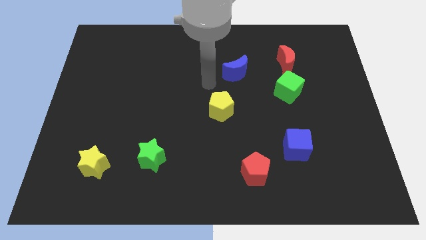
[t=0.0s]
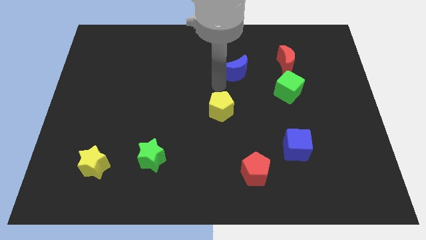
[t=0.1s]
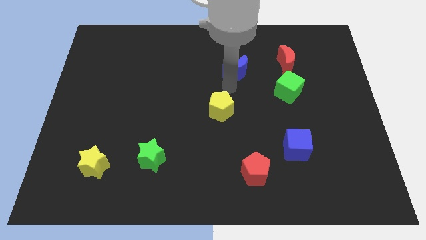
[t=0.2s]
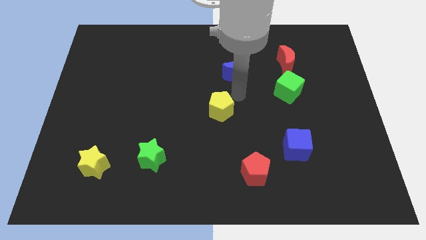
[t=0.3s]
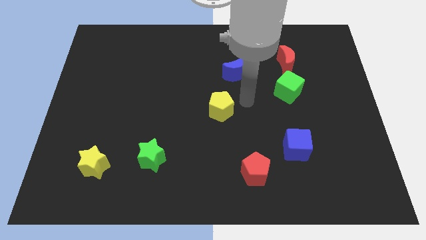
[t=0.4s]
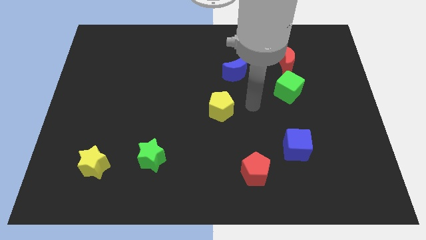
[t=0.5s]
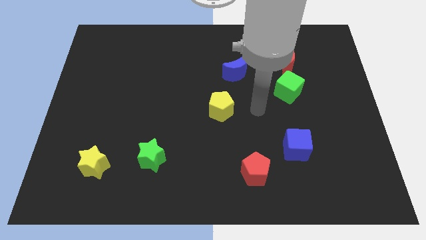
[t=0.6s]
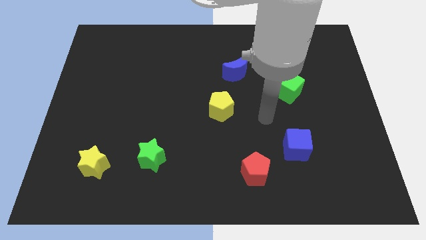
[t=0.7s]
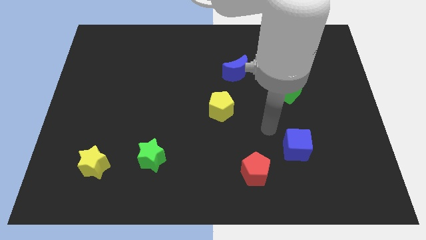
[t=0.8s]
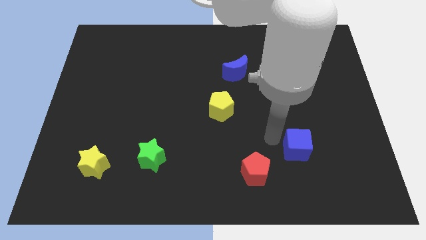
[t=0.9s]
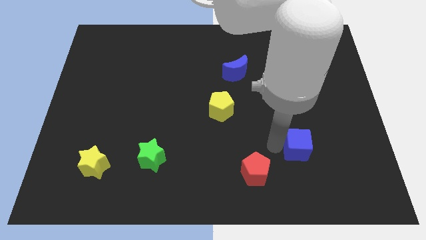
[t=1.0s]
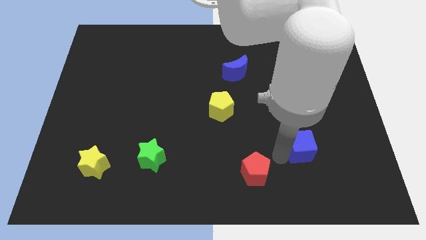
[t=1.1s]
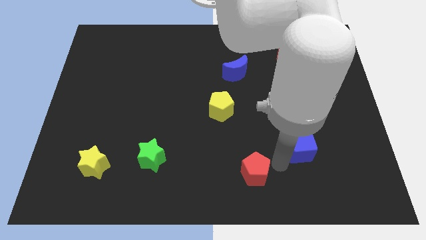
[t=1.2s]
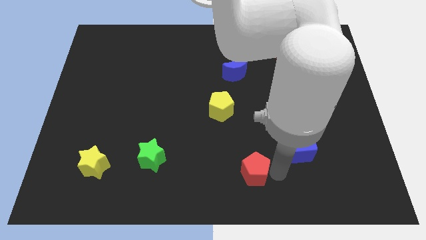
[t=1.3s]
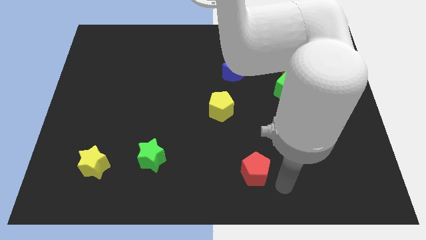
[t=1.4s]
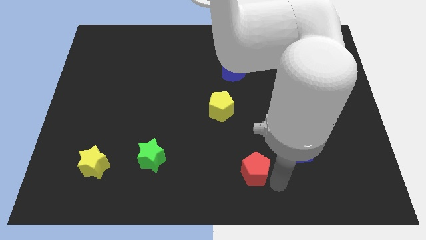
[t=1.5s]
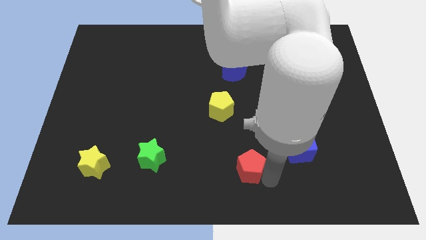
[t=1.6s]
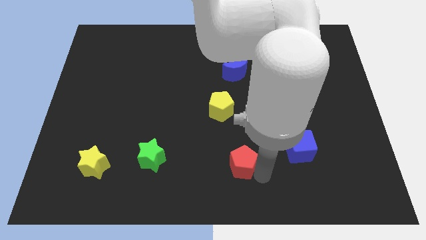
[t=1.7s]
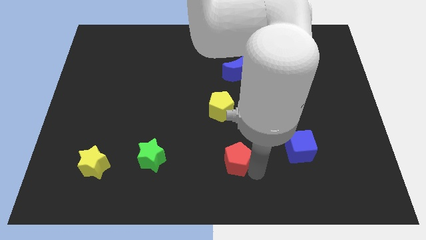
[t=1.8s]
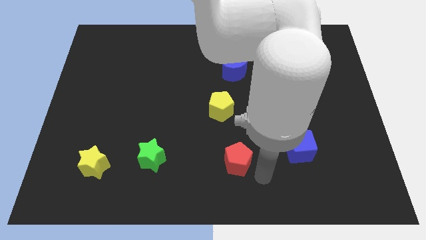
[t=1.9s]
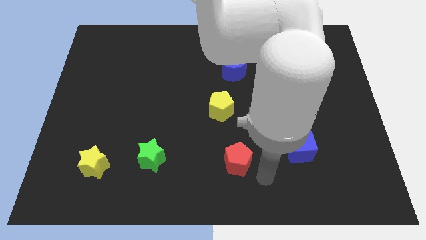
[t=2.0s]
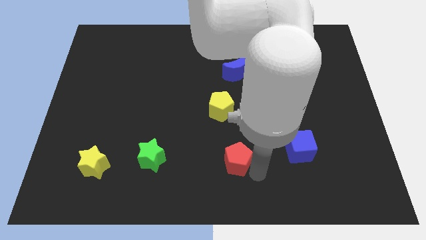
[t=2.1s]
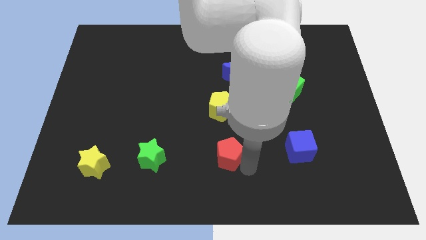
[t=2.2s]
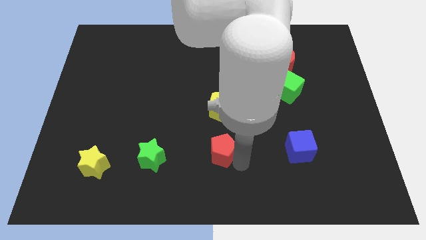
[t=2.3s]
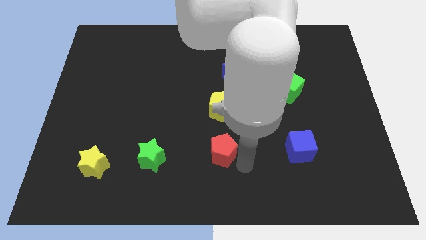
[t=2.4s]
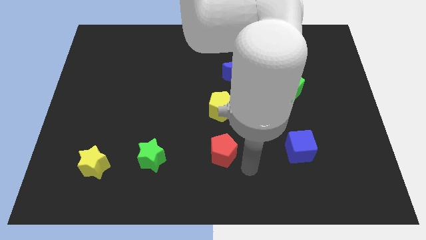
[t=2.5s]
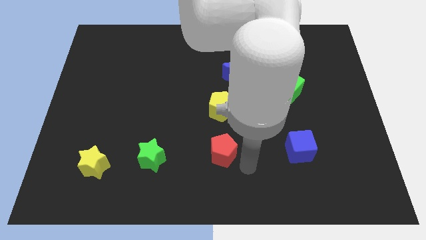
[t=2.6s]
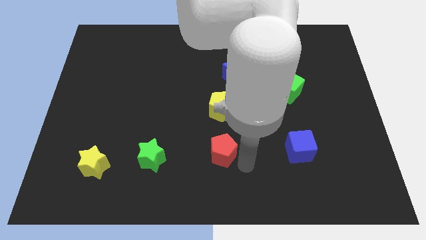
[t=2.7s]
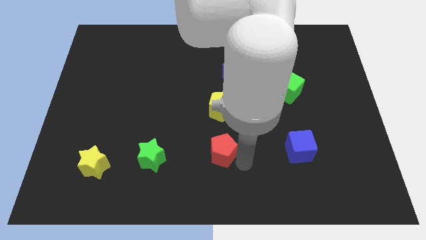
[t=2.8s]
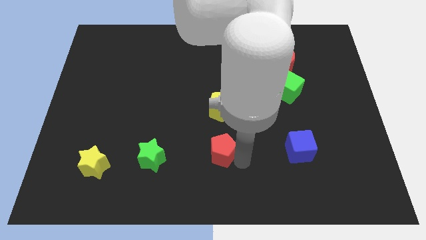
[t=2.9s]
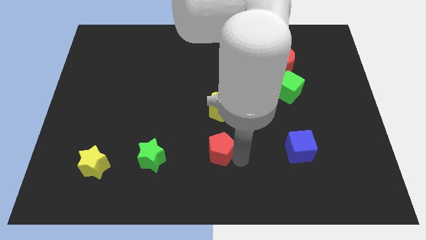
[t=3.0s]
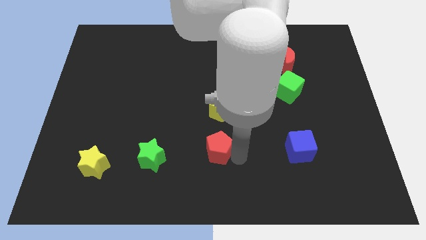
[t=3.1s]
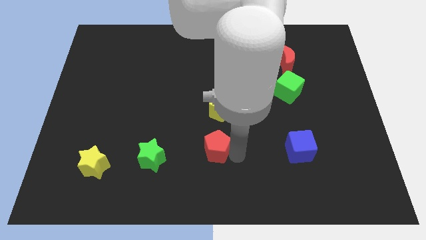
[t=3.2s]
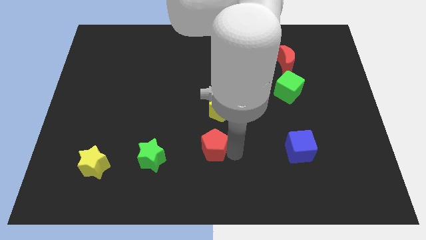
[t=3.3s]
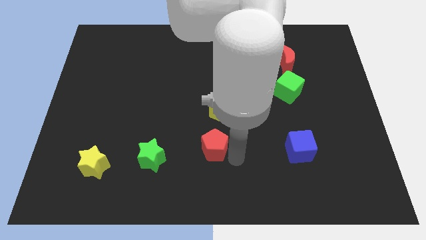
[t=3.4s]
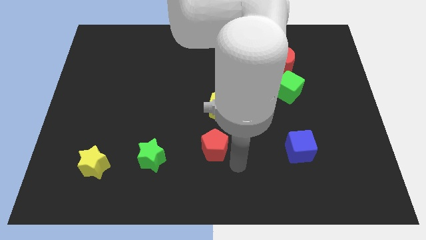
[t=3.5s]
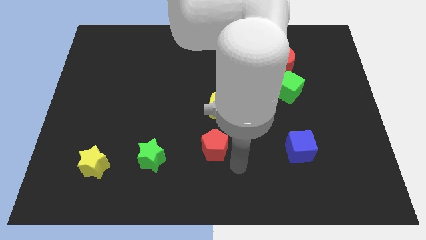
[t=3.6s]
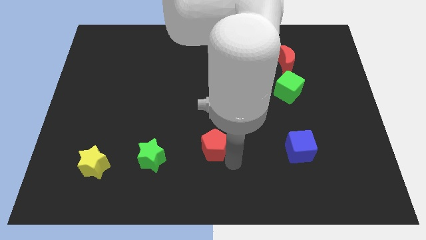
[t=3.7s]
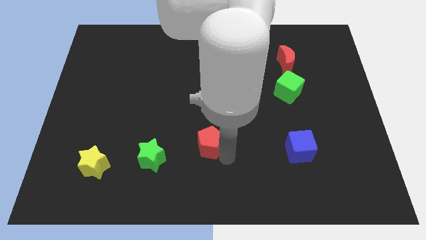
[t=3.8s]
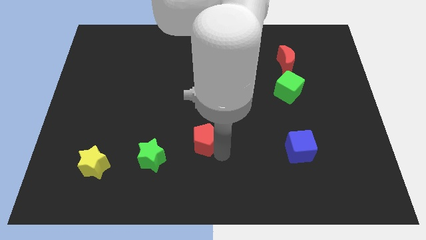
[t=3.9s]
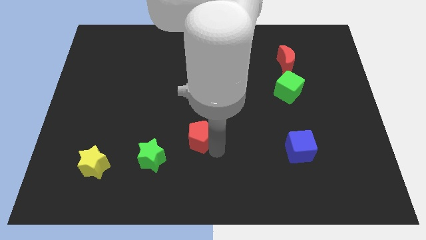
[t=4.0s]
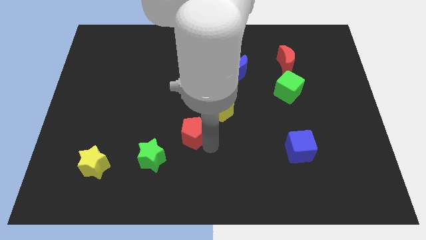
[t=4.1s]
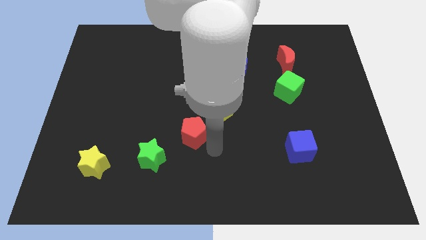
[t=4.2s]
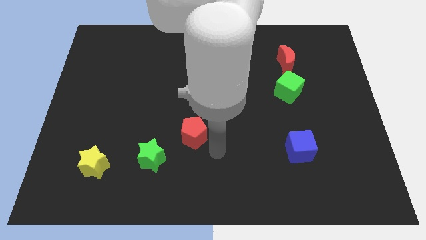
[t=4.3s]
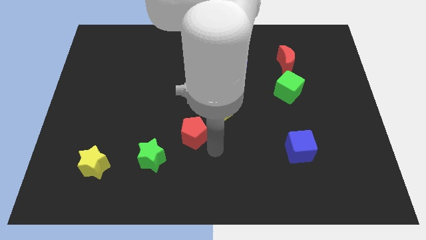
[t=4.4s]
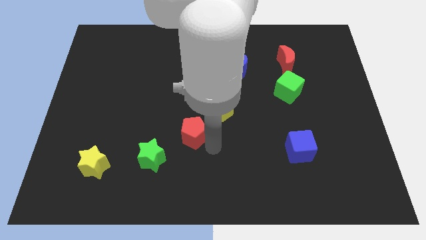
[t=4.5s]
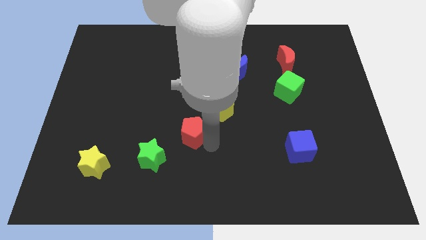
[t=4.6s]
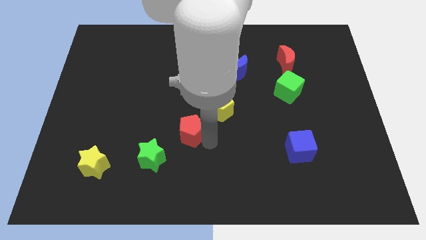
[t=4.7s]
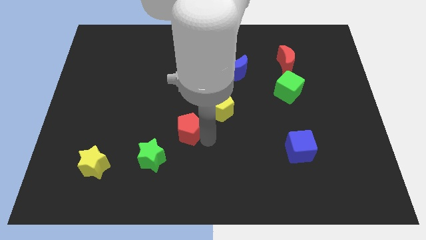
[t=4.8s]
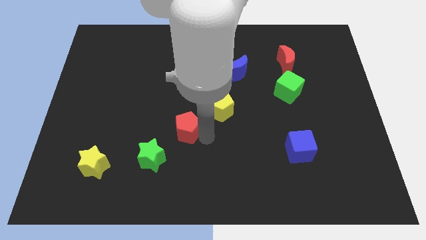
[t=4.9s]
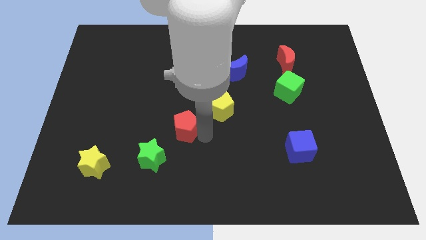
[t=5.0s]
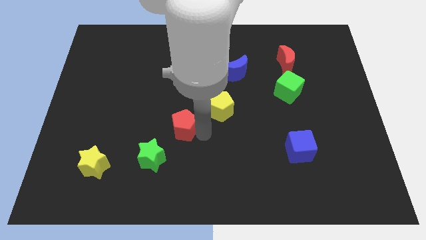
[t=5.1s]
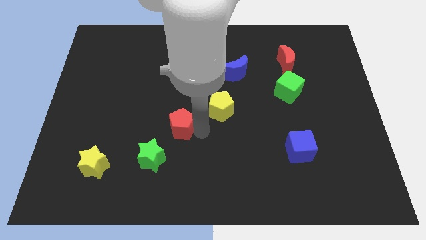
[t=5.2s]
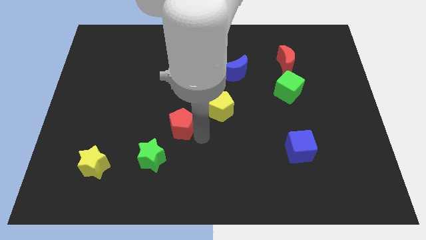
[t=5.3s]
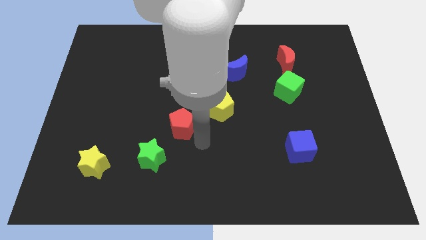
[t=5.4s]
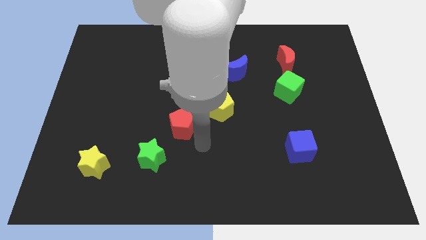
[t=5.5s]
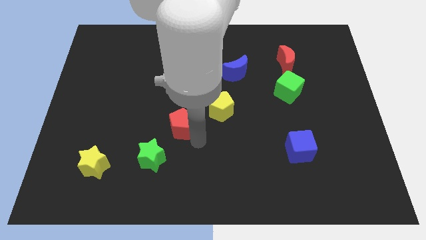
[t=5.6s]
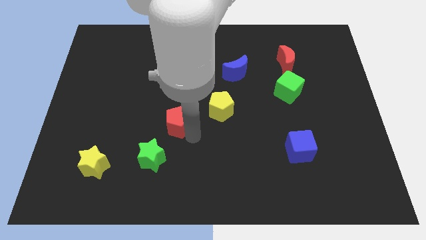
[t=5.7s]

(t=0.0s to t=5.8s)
move the red pentagon up and then left

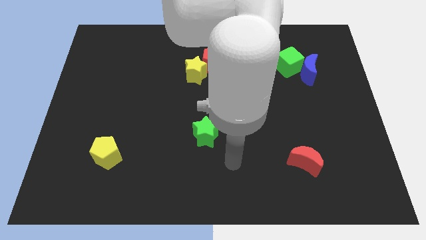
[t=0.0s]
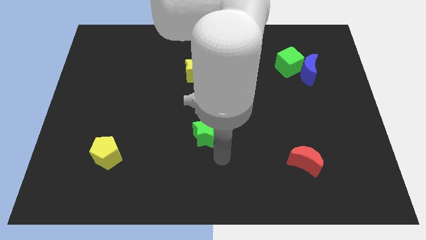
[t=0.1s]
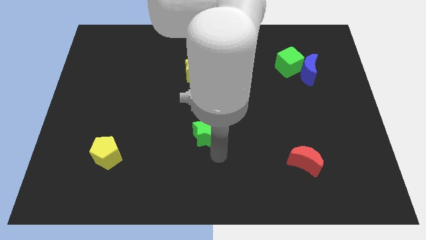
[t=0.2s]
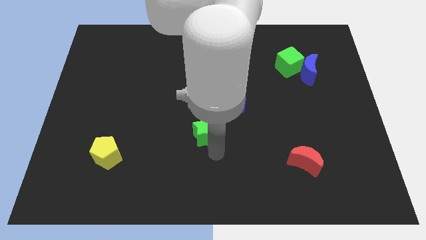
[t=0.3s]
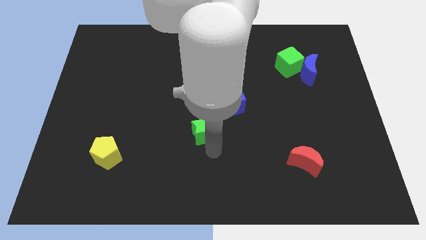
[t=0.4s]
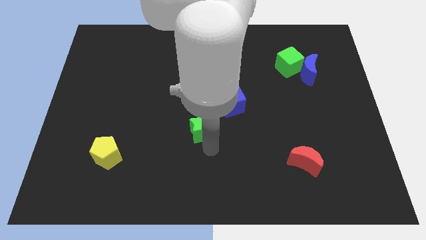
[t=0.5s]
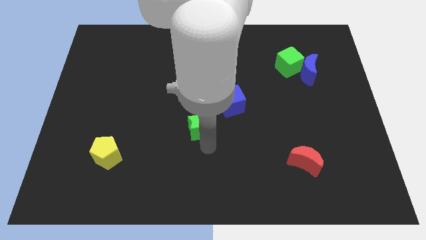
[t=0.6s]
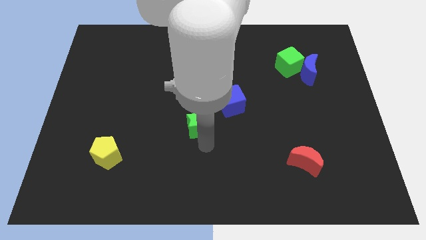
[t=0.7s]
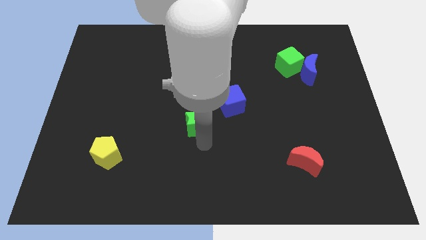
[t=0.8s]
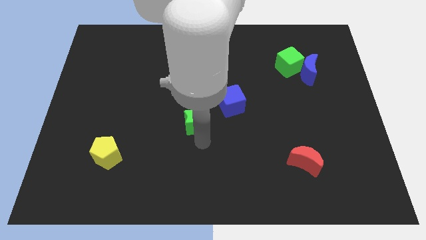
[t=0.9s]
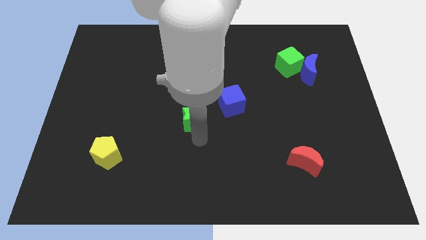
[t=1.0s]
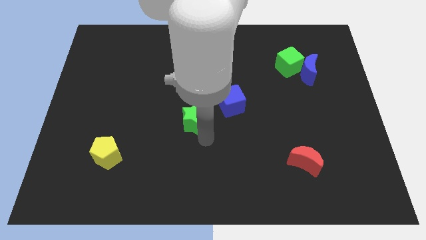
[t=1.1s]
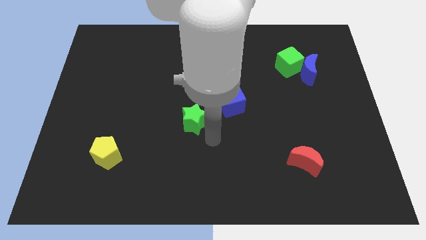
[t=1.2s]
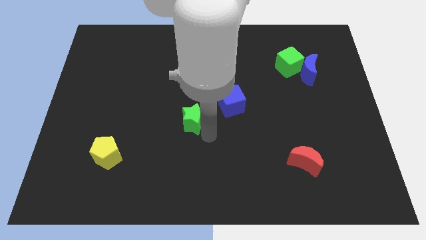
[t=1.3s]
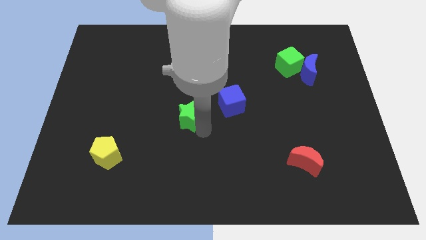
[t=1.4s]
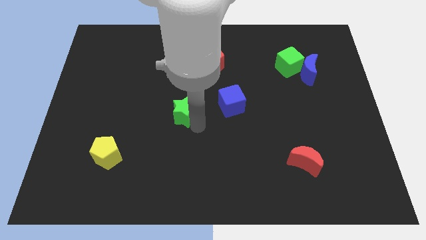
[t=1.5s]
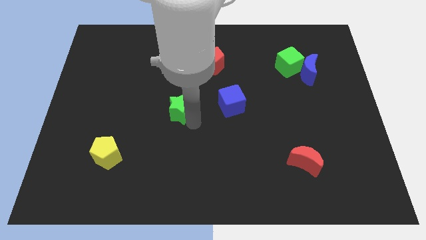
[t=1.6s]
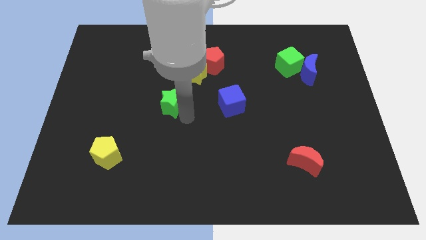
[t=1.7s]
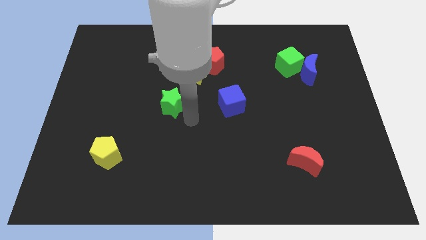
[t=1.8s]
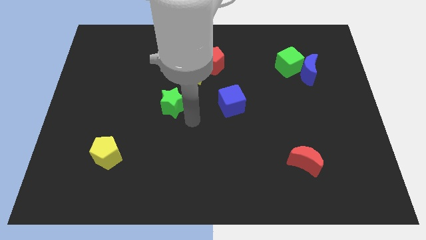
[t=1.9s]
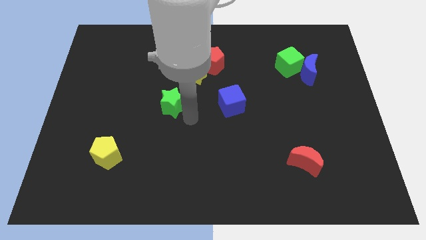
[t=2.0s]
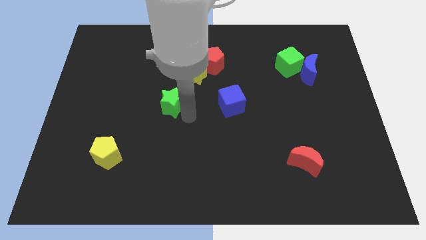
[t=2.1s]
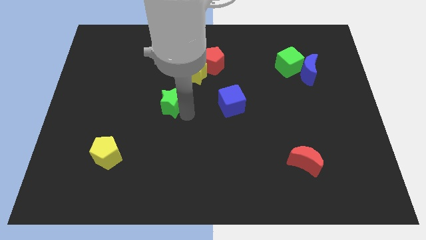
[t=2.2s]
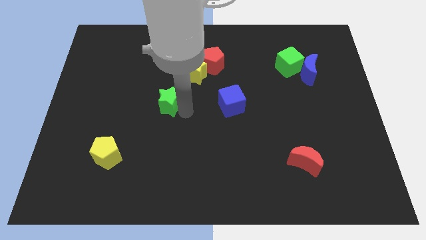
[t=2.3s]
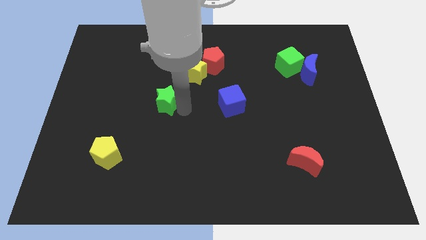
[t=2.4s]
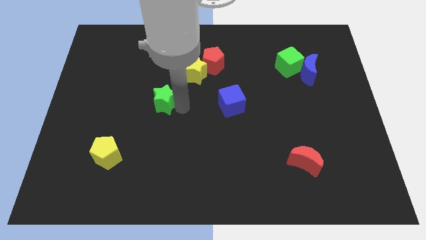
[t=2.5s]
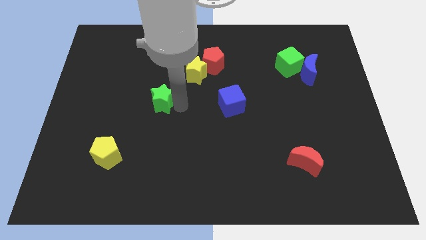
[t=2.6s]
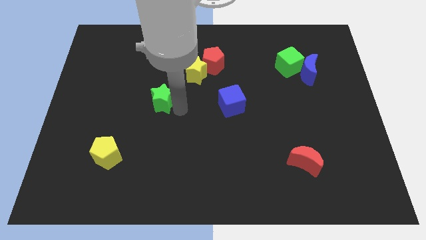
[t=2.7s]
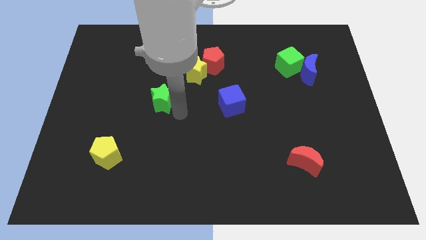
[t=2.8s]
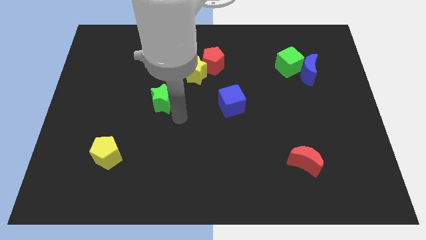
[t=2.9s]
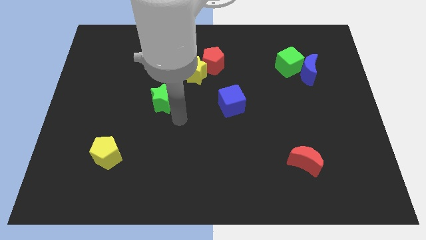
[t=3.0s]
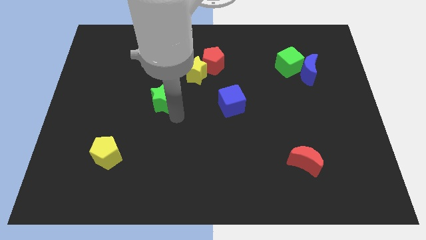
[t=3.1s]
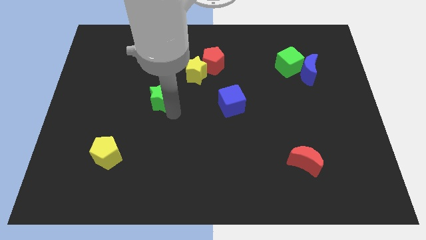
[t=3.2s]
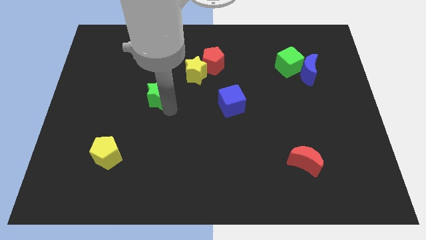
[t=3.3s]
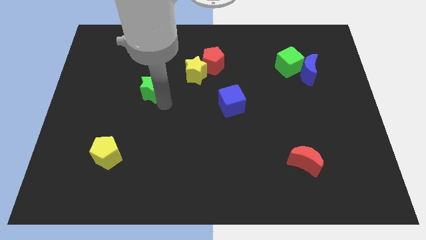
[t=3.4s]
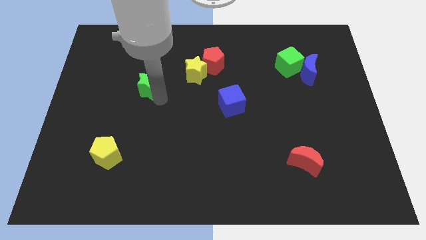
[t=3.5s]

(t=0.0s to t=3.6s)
push the green star diagonally upwards and left
